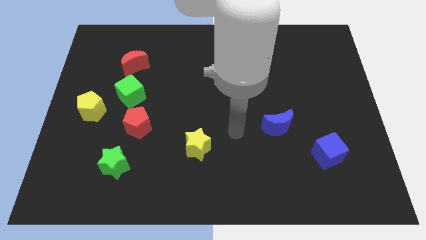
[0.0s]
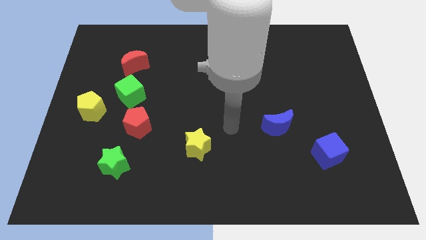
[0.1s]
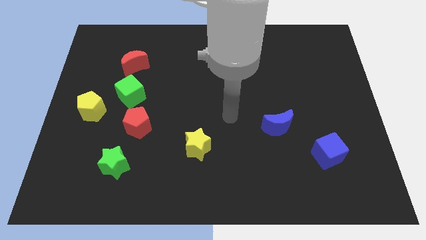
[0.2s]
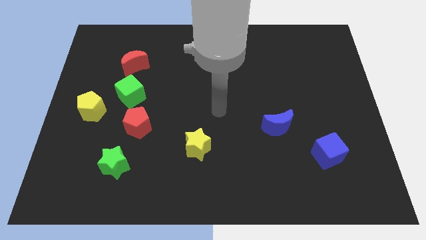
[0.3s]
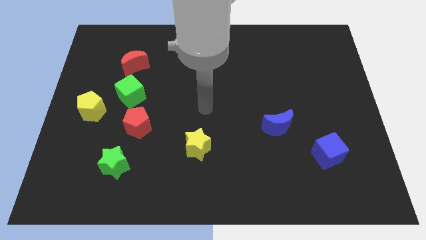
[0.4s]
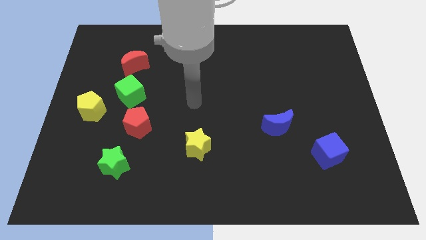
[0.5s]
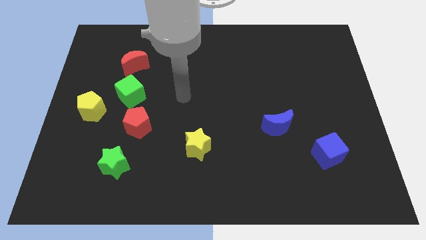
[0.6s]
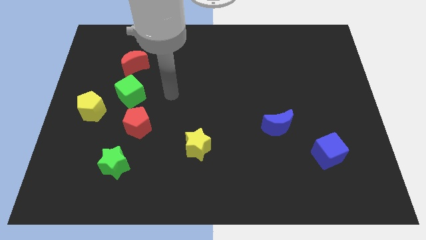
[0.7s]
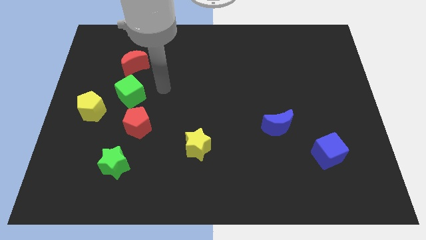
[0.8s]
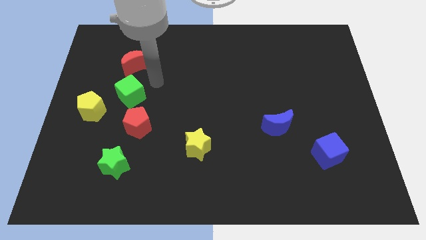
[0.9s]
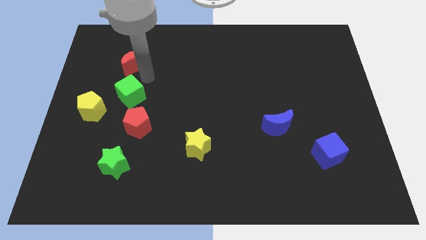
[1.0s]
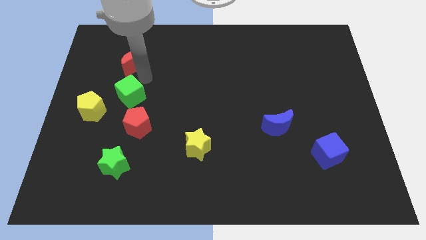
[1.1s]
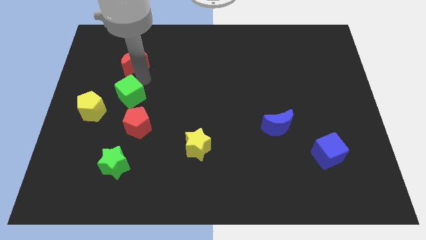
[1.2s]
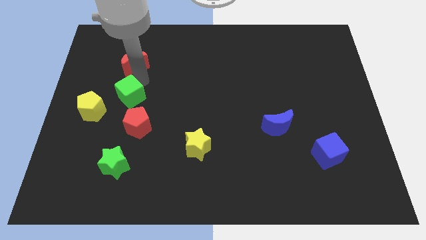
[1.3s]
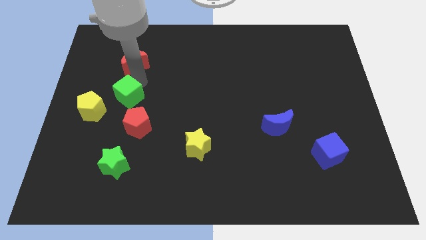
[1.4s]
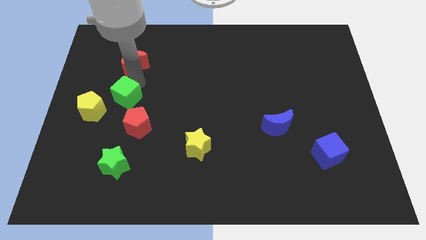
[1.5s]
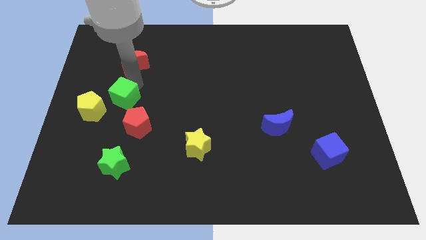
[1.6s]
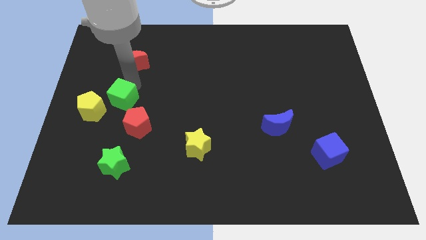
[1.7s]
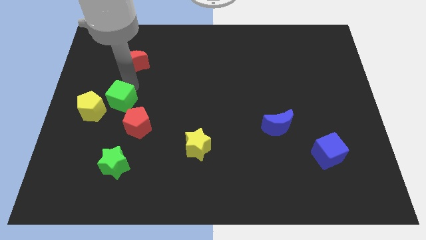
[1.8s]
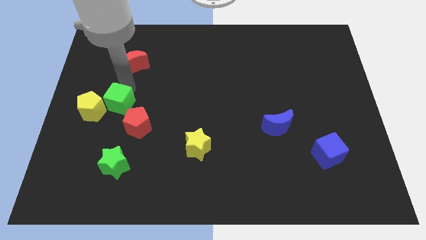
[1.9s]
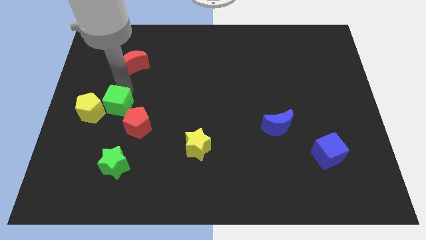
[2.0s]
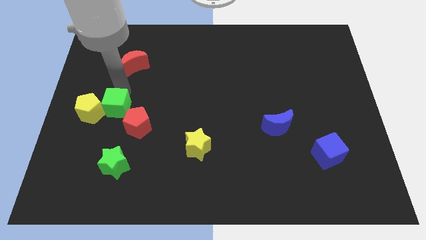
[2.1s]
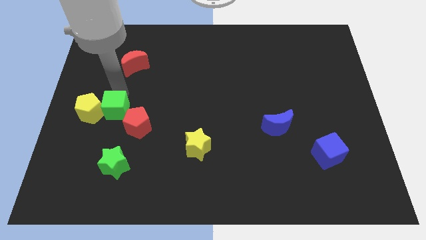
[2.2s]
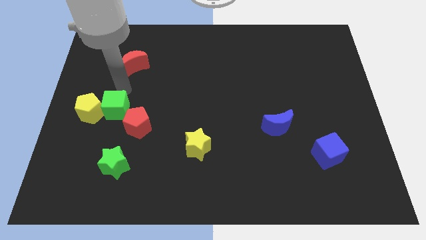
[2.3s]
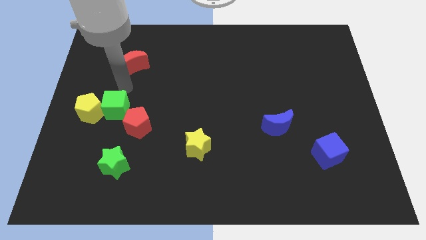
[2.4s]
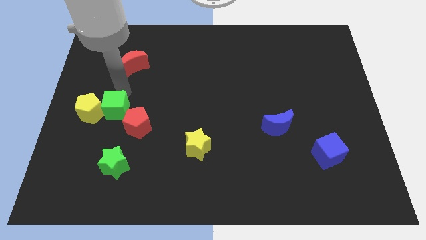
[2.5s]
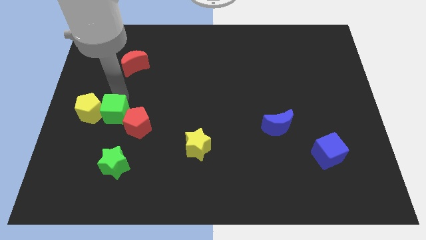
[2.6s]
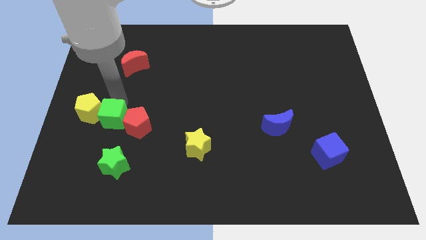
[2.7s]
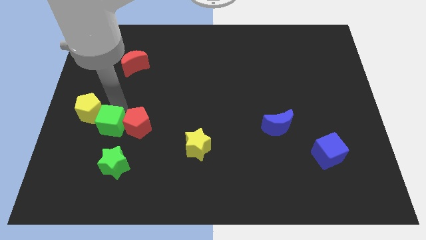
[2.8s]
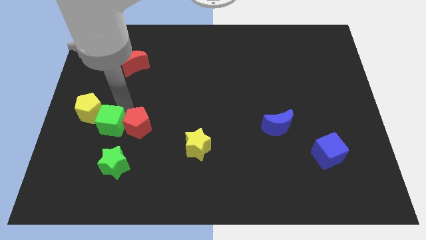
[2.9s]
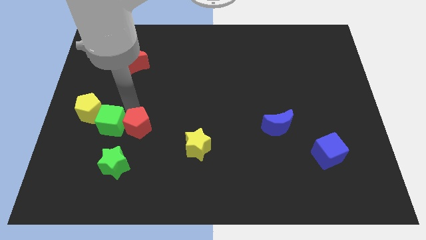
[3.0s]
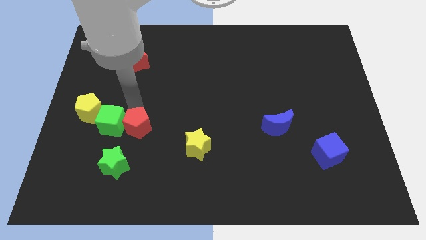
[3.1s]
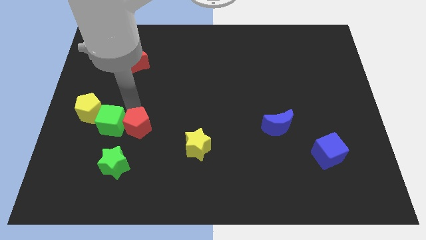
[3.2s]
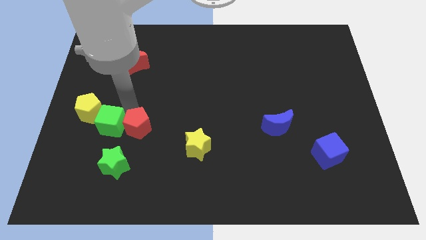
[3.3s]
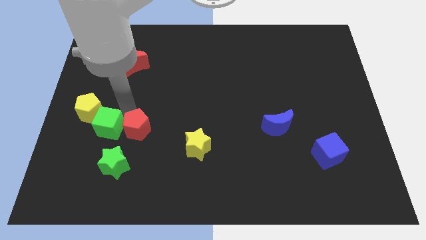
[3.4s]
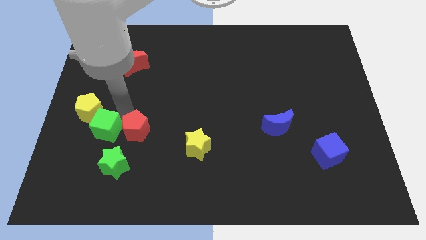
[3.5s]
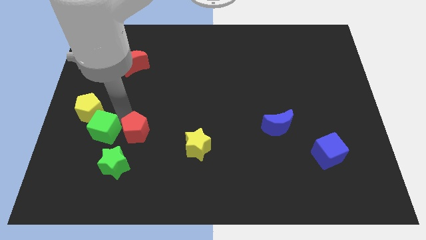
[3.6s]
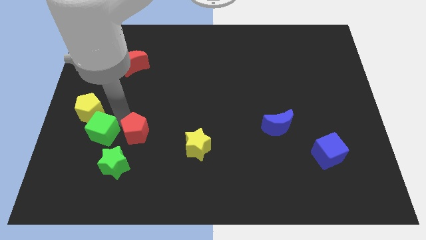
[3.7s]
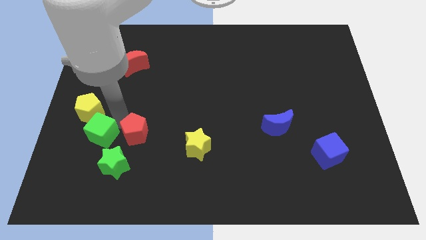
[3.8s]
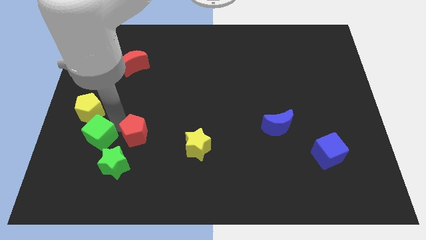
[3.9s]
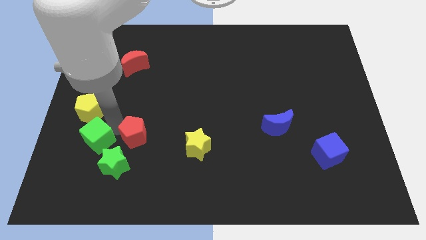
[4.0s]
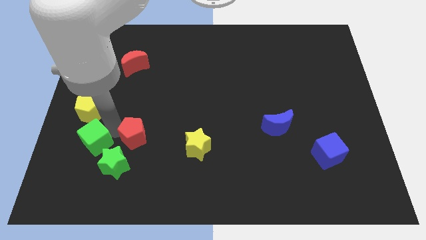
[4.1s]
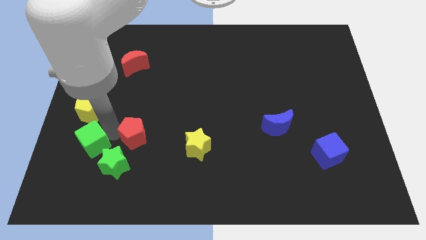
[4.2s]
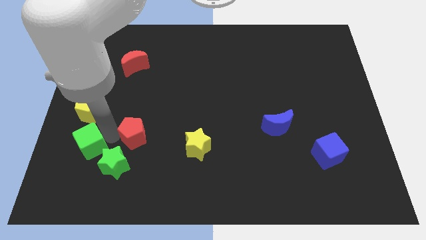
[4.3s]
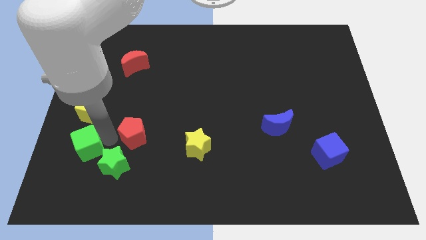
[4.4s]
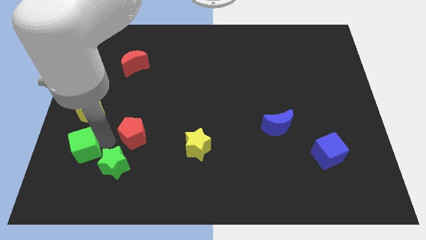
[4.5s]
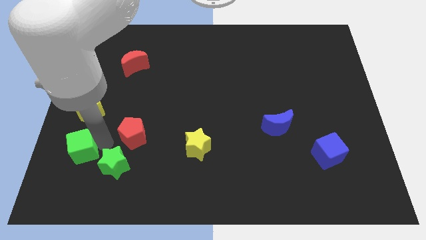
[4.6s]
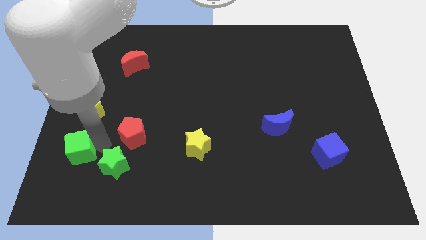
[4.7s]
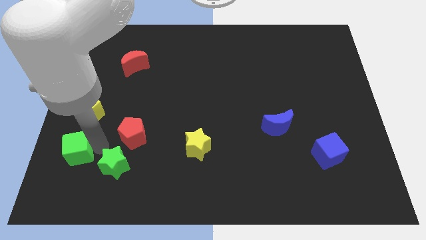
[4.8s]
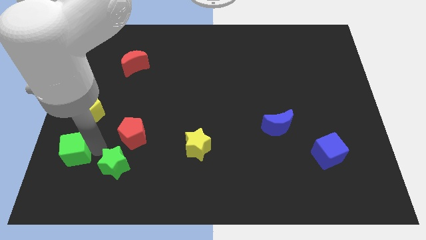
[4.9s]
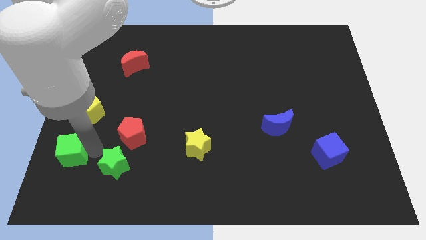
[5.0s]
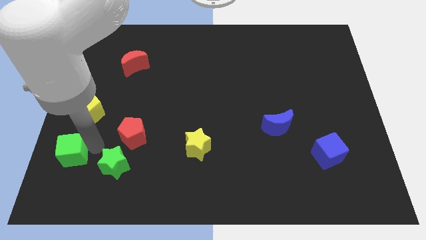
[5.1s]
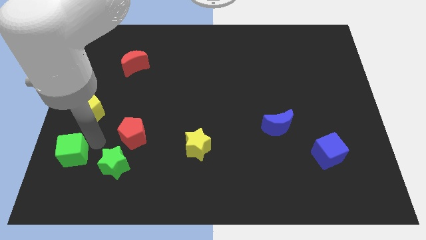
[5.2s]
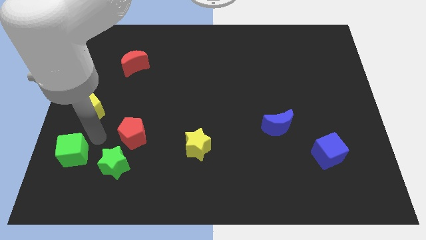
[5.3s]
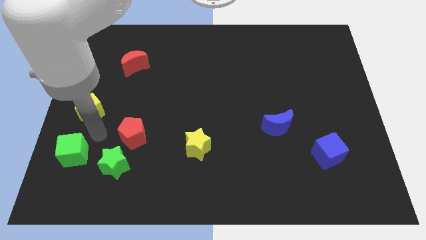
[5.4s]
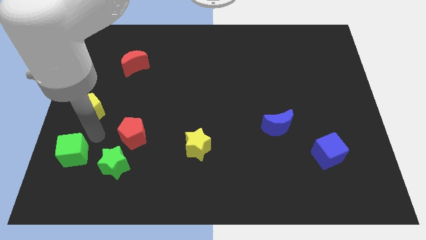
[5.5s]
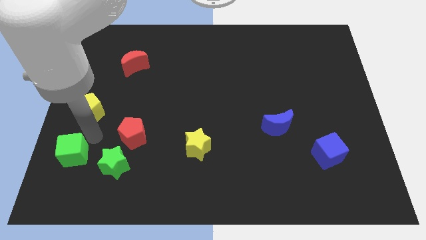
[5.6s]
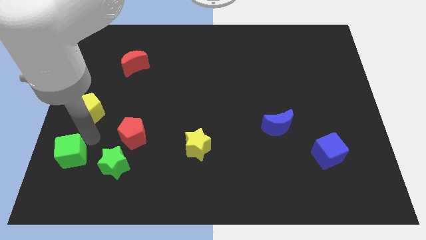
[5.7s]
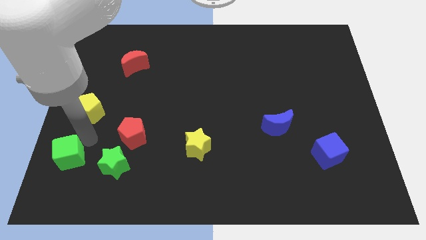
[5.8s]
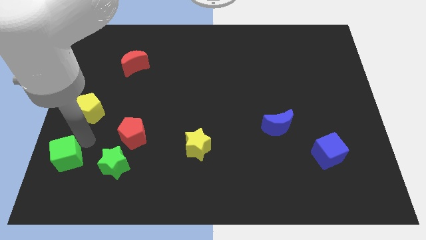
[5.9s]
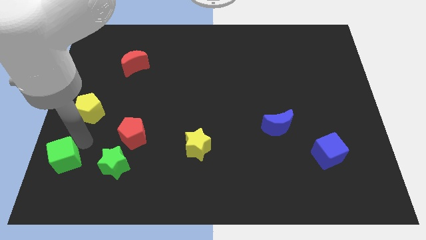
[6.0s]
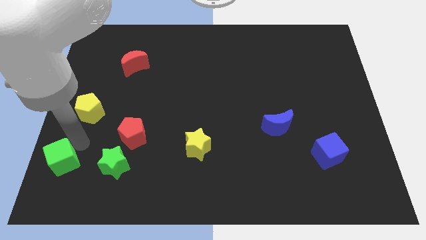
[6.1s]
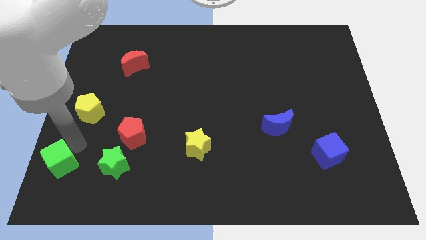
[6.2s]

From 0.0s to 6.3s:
push the green cube to the bottom left
